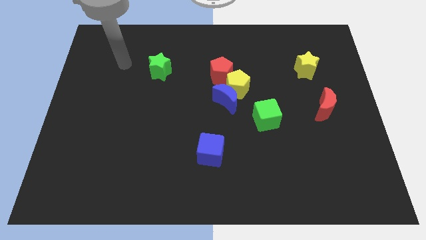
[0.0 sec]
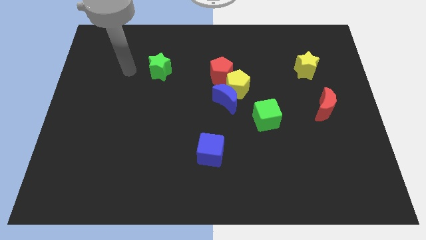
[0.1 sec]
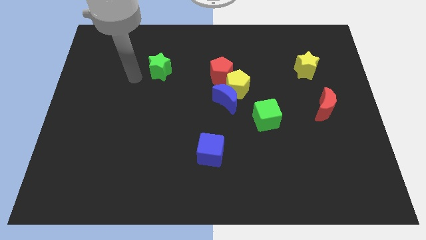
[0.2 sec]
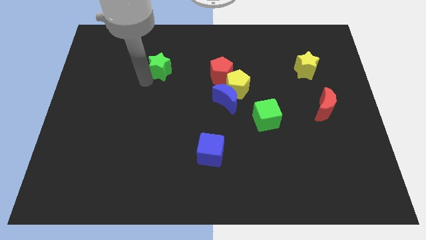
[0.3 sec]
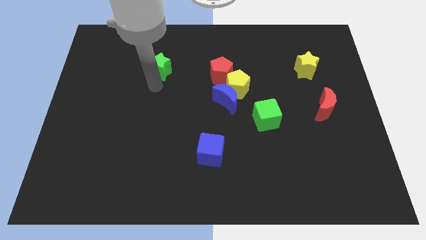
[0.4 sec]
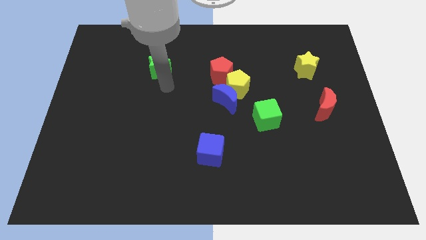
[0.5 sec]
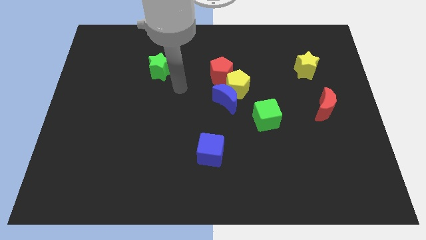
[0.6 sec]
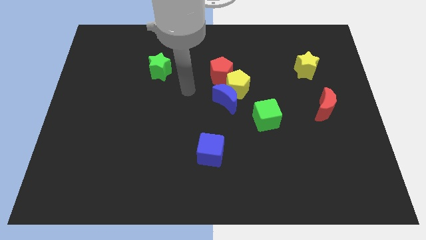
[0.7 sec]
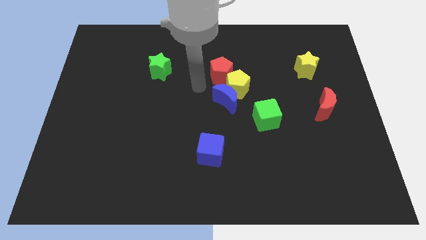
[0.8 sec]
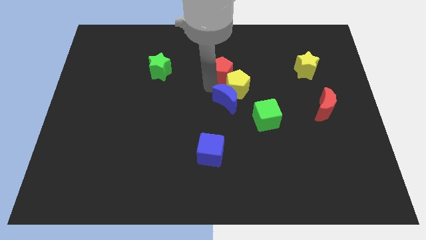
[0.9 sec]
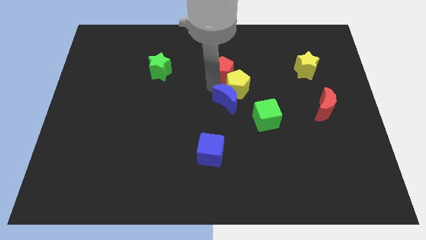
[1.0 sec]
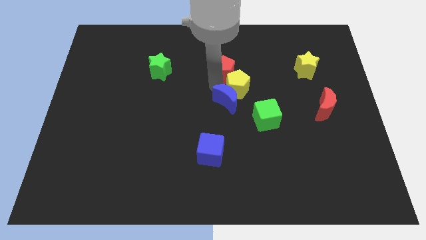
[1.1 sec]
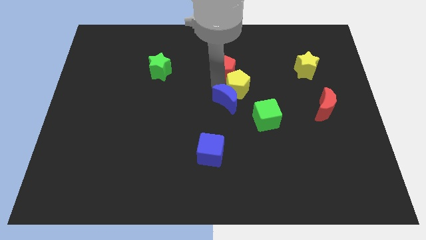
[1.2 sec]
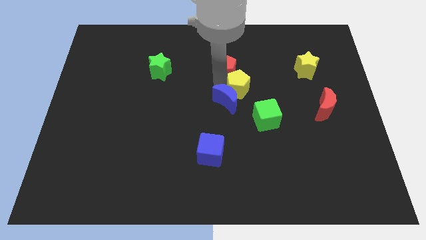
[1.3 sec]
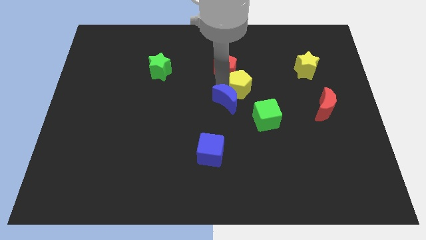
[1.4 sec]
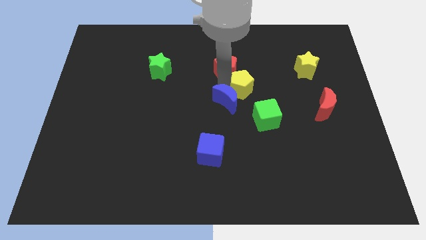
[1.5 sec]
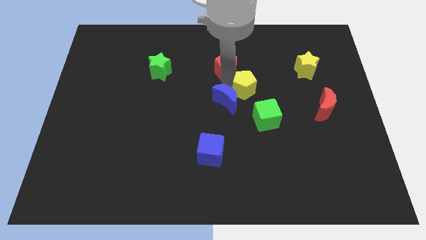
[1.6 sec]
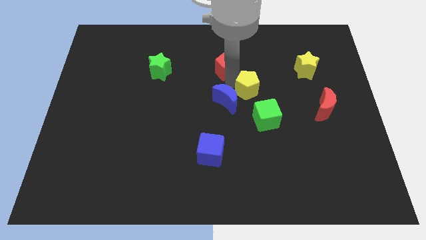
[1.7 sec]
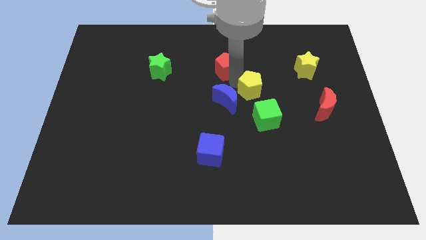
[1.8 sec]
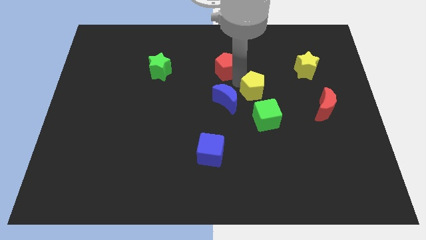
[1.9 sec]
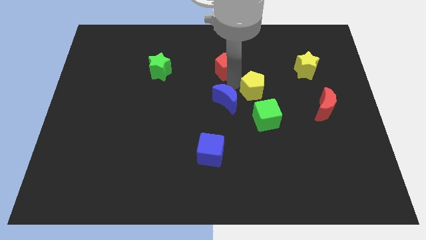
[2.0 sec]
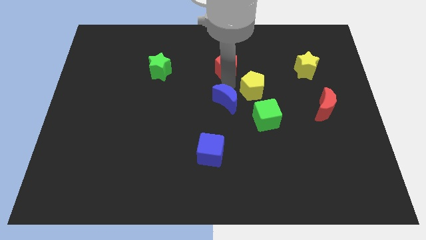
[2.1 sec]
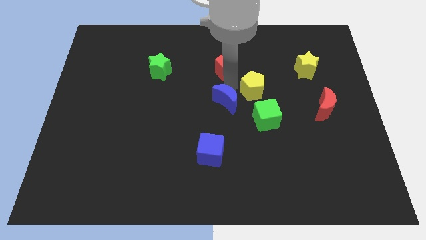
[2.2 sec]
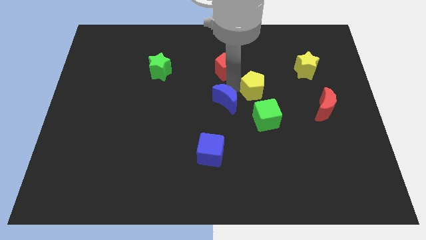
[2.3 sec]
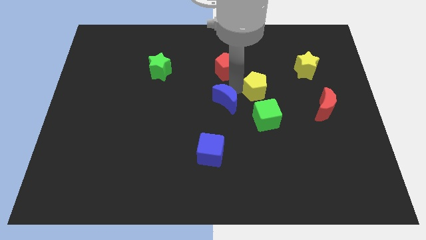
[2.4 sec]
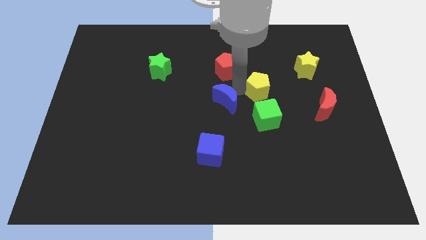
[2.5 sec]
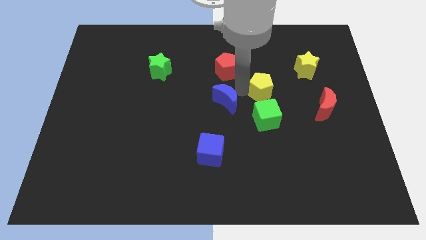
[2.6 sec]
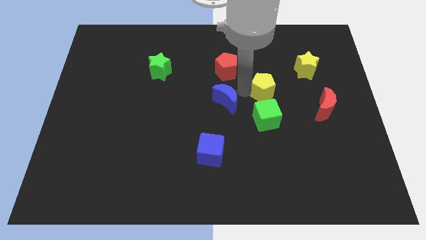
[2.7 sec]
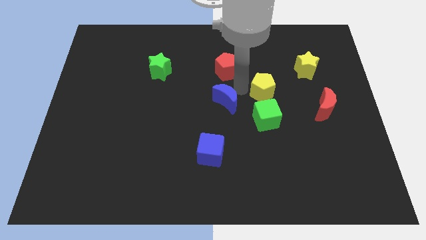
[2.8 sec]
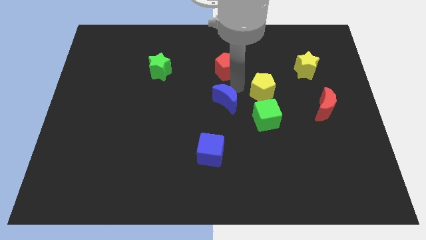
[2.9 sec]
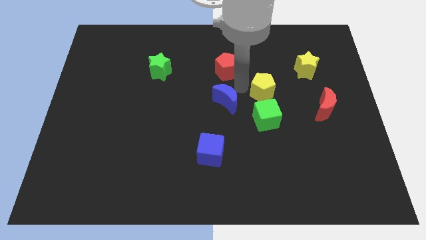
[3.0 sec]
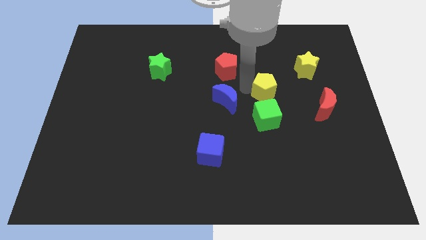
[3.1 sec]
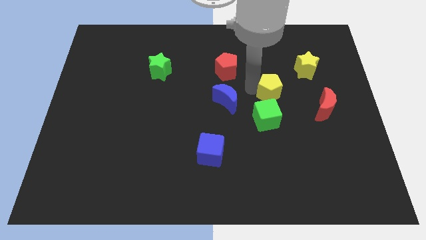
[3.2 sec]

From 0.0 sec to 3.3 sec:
pull the yellow pentagon apart from the blue moon and red pentagon

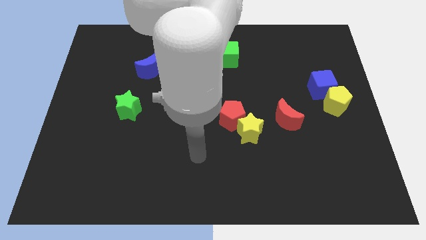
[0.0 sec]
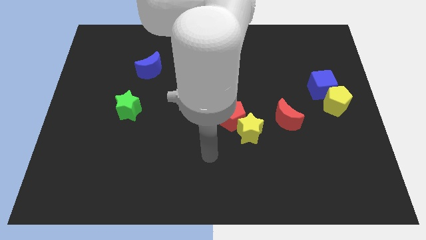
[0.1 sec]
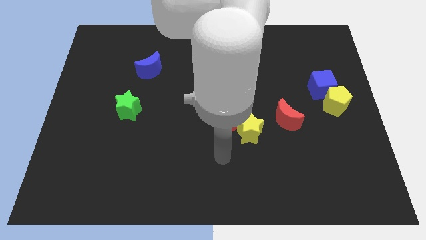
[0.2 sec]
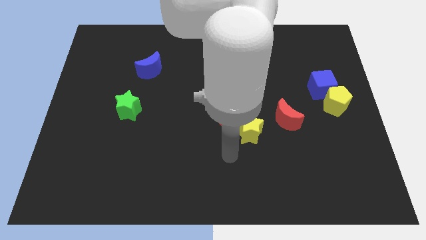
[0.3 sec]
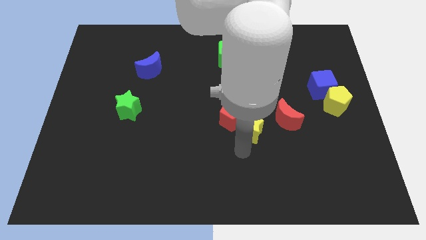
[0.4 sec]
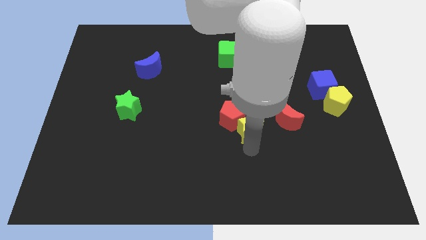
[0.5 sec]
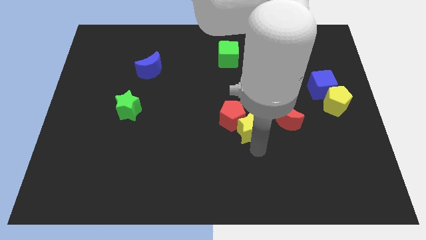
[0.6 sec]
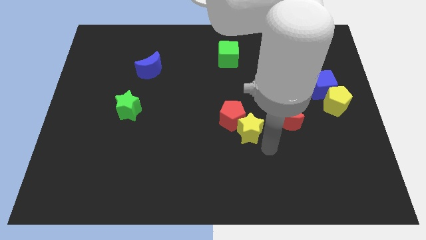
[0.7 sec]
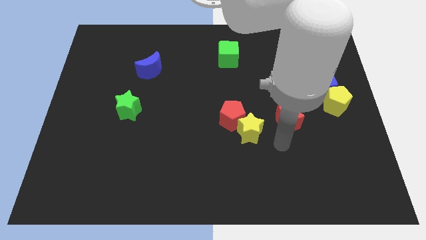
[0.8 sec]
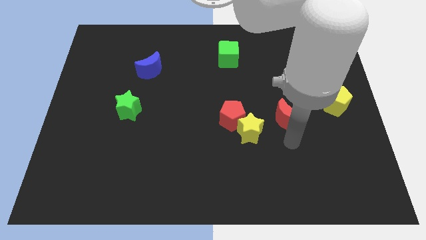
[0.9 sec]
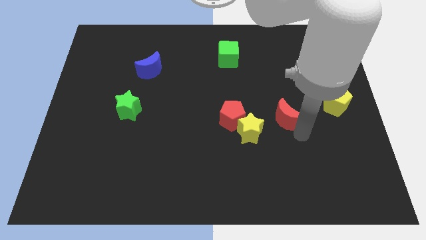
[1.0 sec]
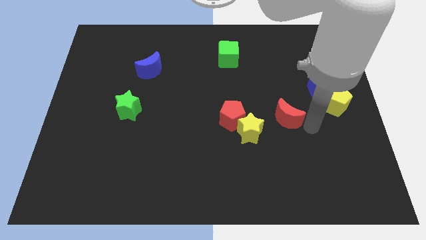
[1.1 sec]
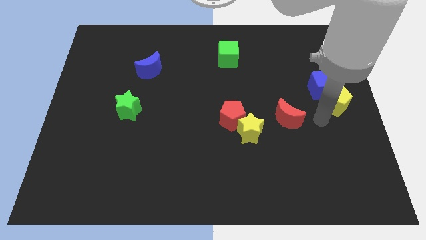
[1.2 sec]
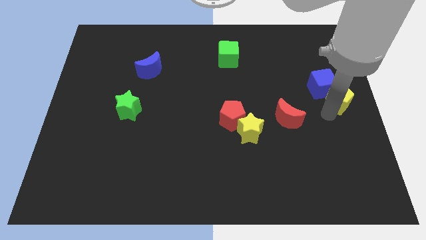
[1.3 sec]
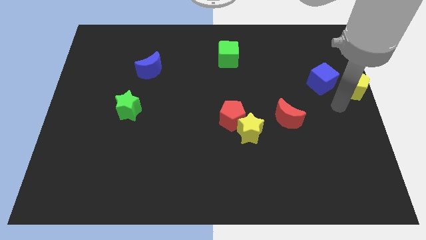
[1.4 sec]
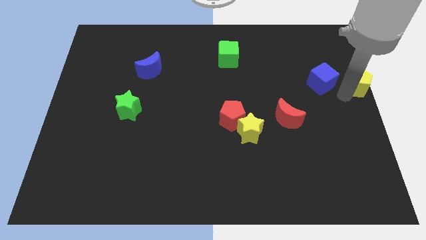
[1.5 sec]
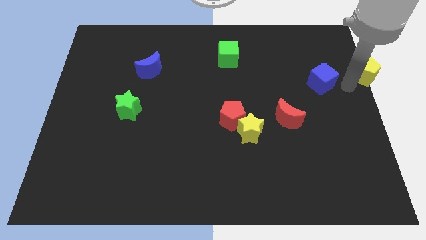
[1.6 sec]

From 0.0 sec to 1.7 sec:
pull the blue cube apart from the yellow pentagon

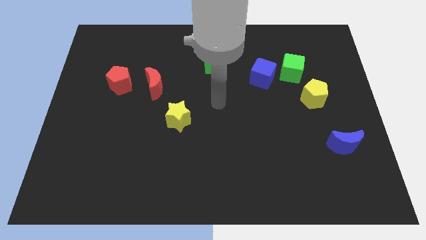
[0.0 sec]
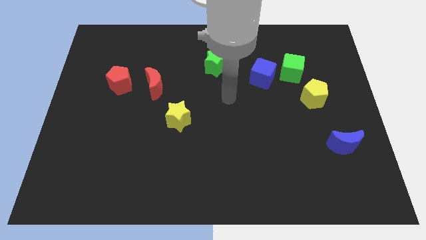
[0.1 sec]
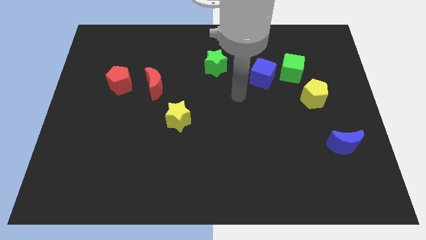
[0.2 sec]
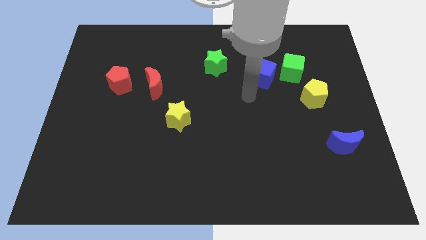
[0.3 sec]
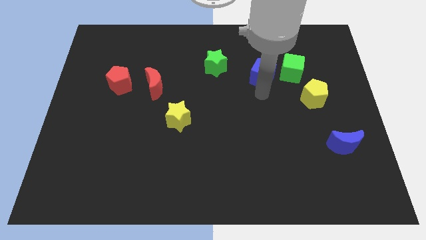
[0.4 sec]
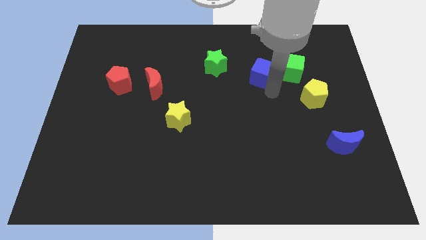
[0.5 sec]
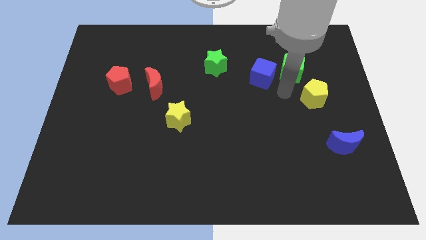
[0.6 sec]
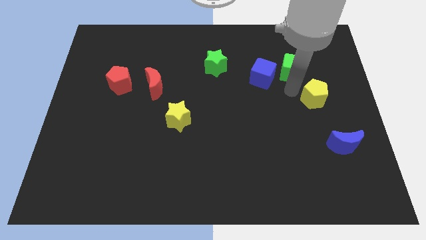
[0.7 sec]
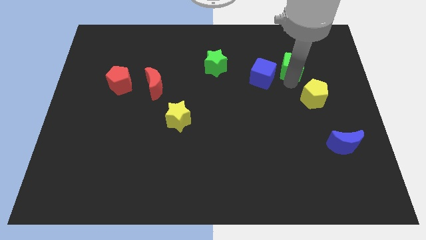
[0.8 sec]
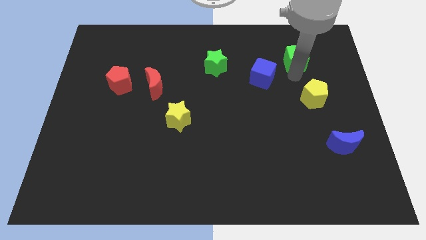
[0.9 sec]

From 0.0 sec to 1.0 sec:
pull the blue cube apart from the green cube

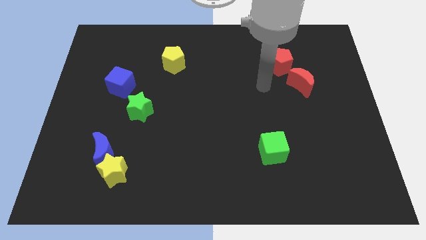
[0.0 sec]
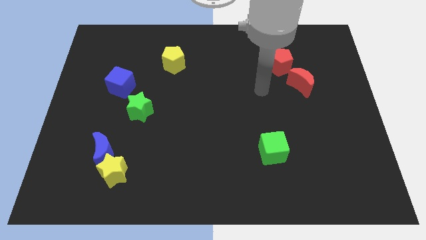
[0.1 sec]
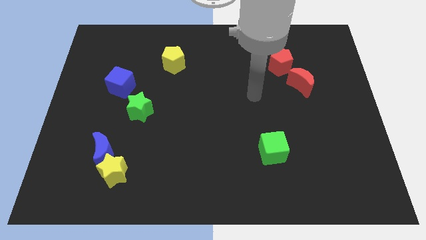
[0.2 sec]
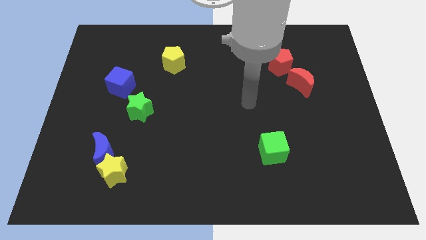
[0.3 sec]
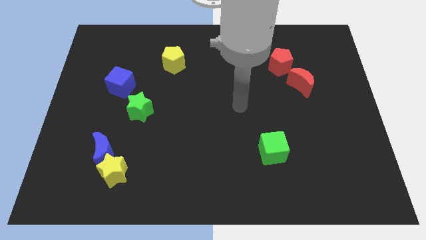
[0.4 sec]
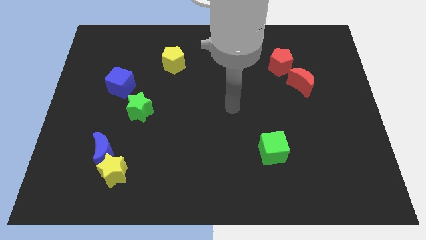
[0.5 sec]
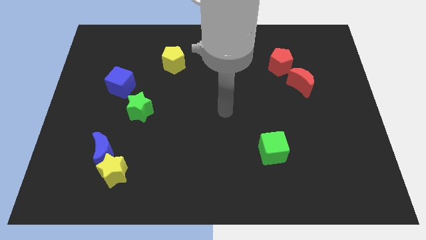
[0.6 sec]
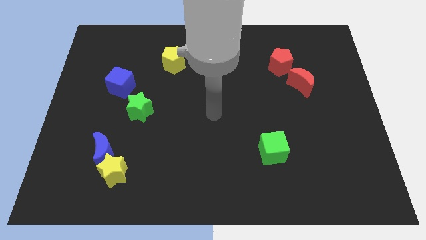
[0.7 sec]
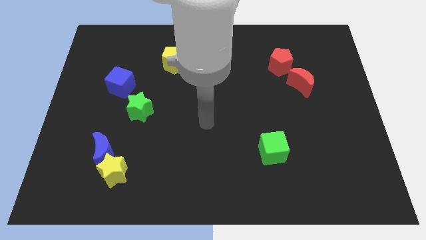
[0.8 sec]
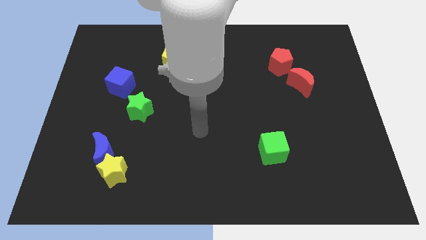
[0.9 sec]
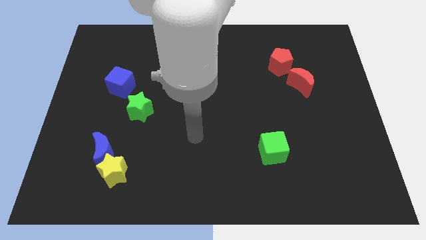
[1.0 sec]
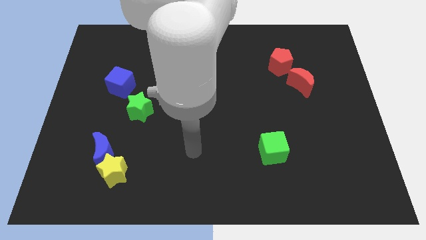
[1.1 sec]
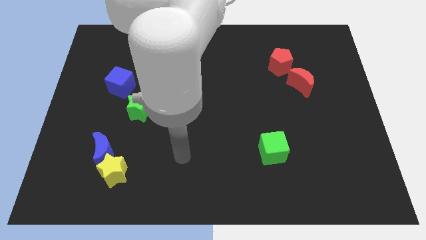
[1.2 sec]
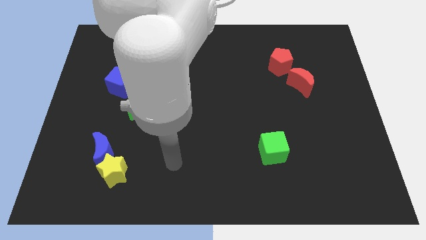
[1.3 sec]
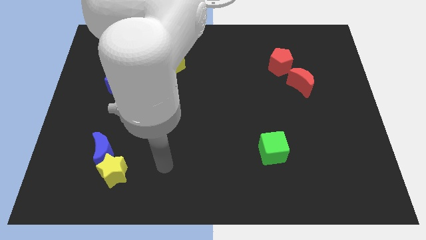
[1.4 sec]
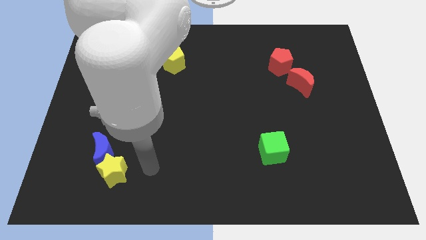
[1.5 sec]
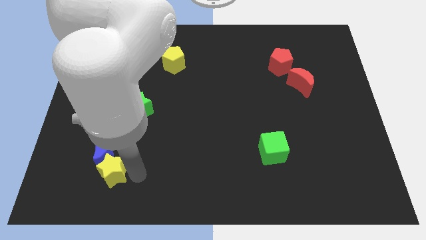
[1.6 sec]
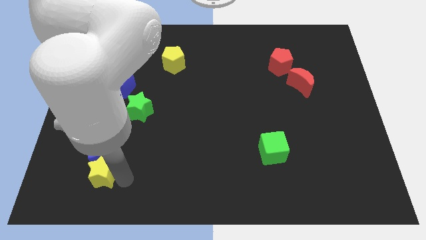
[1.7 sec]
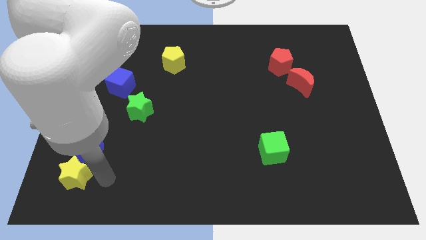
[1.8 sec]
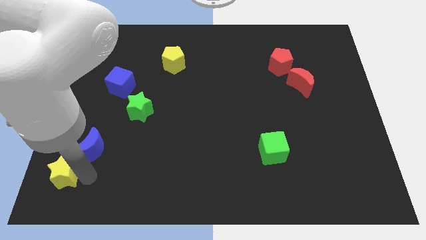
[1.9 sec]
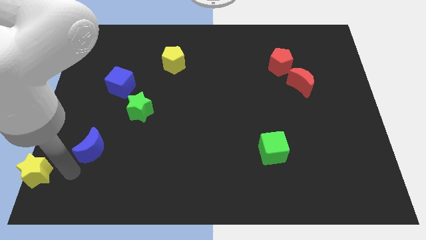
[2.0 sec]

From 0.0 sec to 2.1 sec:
separate the blue moon from the yellow star

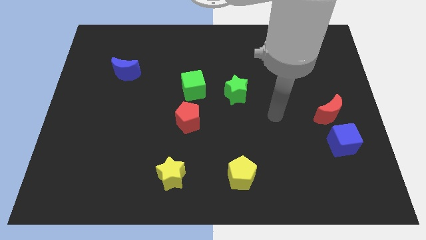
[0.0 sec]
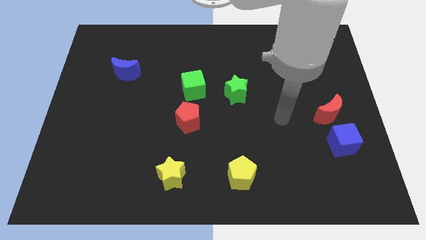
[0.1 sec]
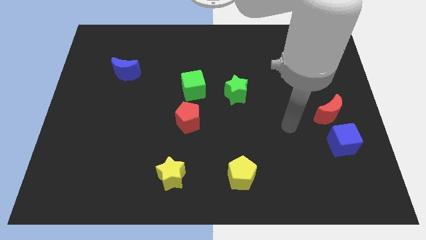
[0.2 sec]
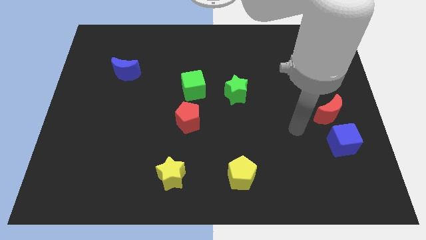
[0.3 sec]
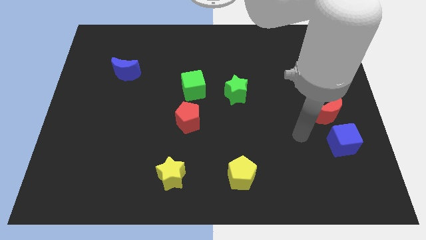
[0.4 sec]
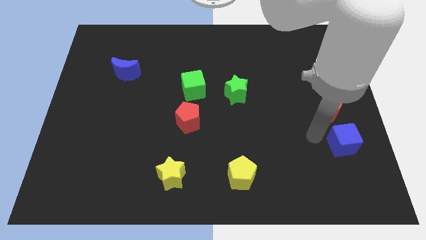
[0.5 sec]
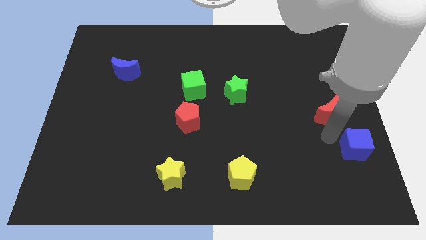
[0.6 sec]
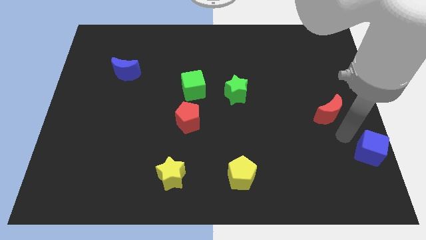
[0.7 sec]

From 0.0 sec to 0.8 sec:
move the red moon away from the blue cube

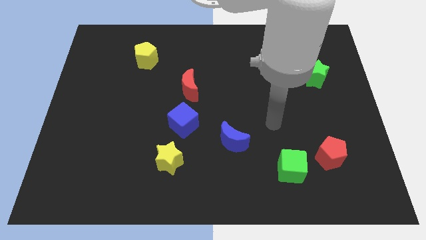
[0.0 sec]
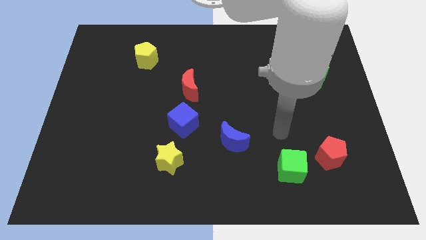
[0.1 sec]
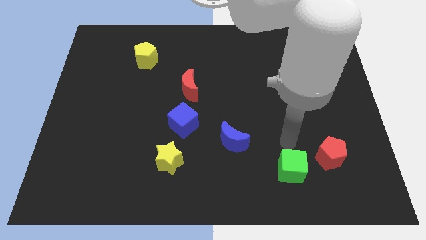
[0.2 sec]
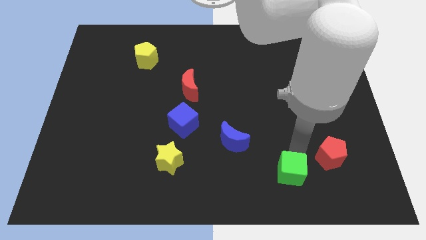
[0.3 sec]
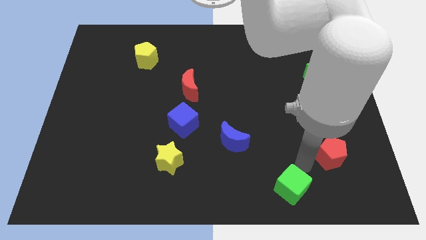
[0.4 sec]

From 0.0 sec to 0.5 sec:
pull the red pentagon apart from the green cube
